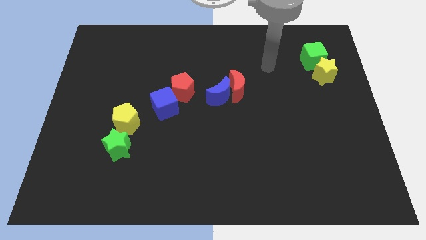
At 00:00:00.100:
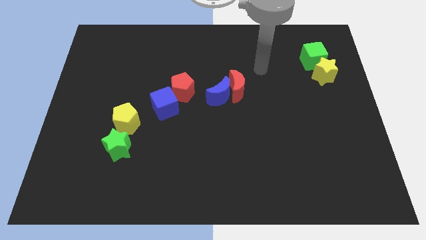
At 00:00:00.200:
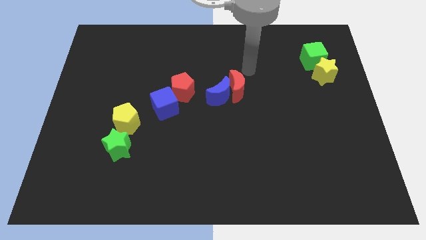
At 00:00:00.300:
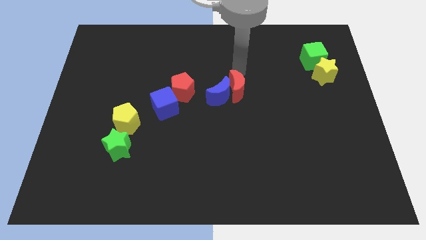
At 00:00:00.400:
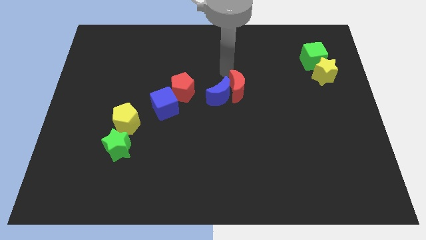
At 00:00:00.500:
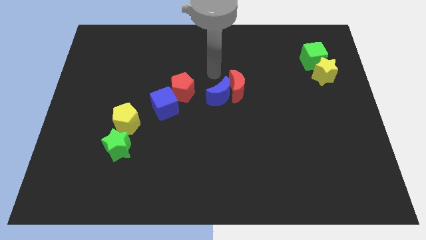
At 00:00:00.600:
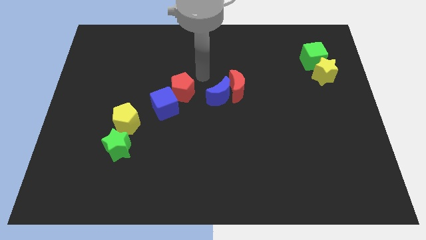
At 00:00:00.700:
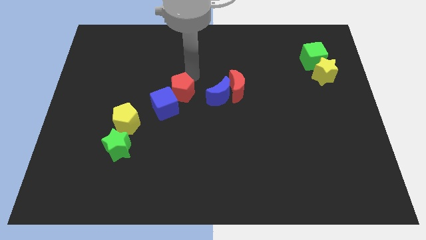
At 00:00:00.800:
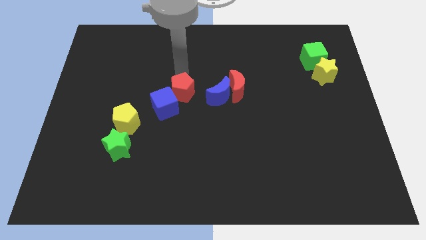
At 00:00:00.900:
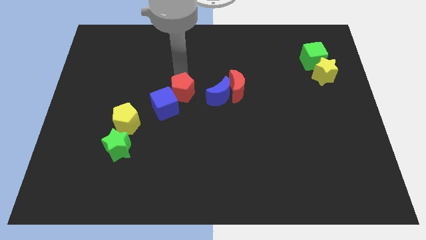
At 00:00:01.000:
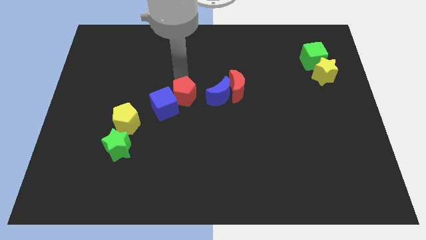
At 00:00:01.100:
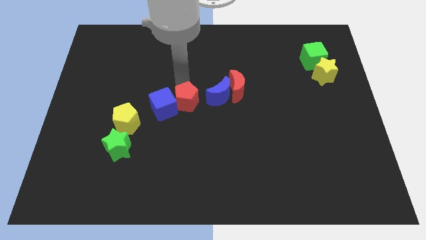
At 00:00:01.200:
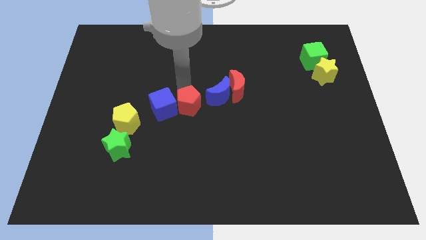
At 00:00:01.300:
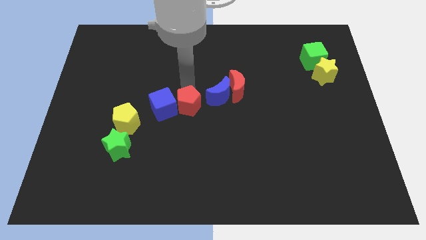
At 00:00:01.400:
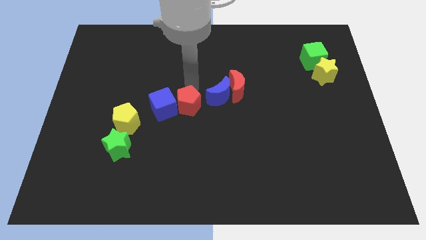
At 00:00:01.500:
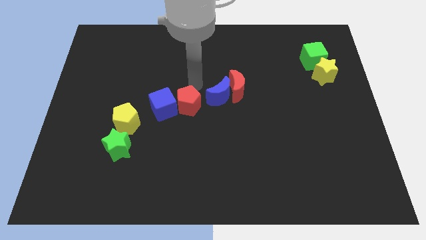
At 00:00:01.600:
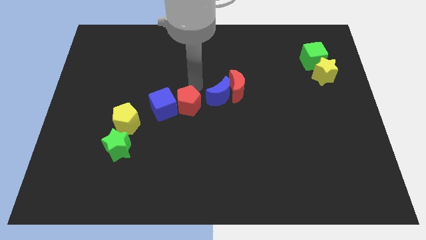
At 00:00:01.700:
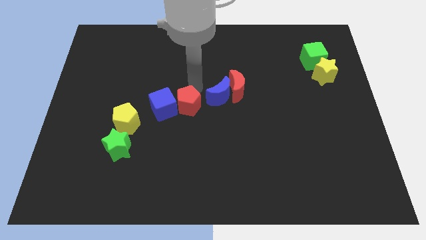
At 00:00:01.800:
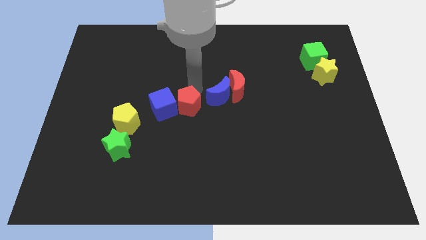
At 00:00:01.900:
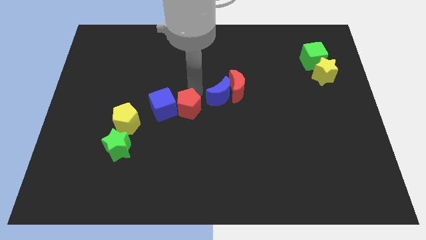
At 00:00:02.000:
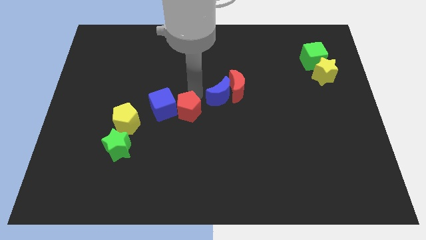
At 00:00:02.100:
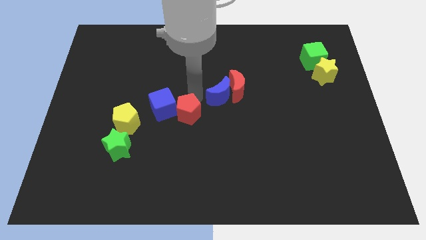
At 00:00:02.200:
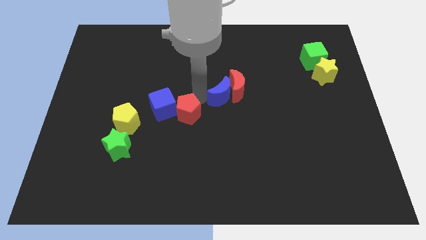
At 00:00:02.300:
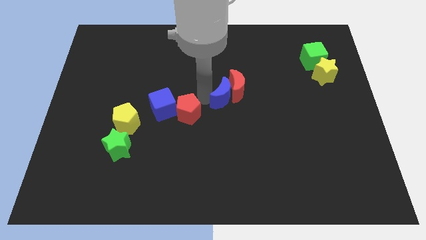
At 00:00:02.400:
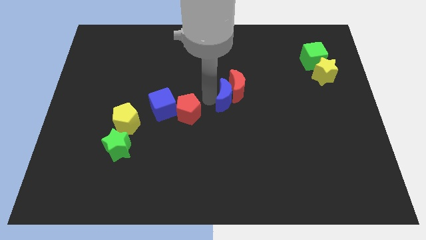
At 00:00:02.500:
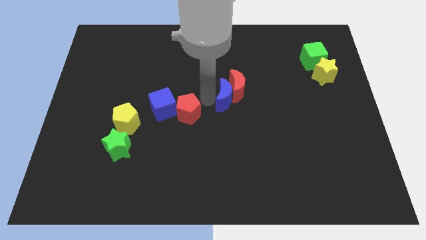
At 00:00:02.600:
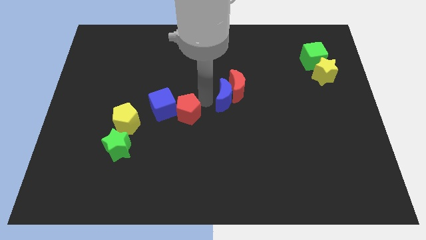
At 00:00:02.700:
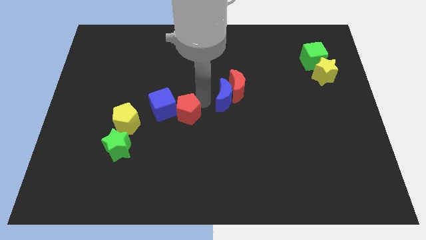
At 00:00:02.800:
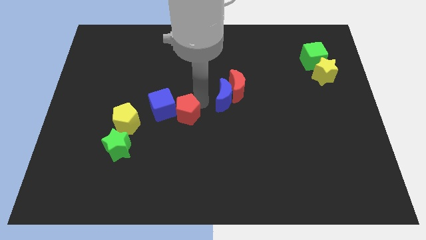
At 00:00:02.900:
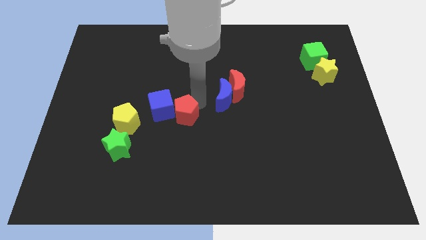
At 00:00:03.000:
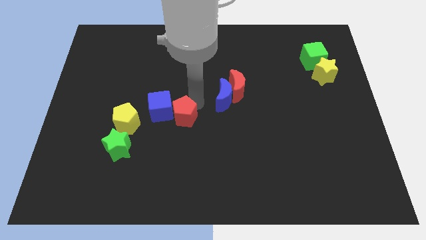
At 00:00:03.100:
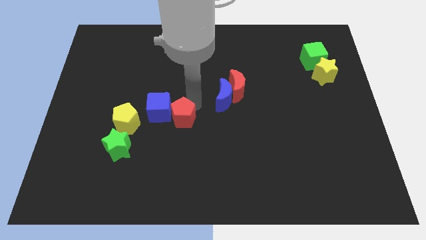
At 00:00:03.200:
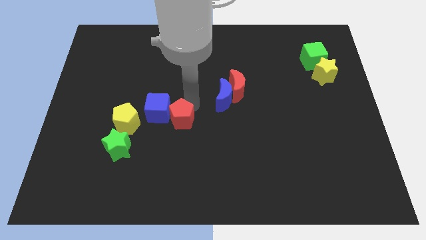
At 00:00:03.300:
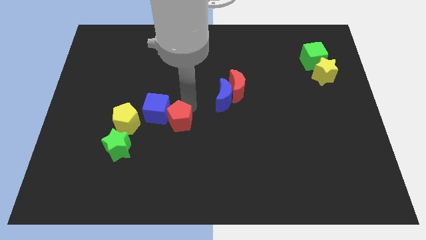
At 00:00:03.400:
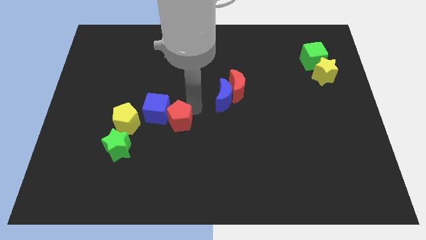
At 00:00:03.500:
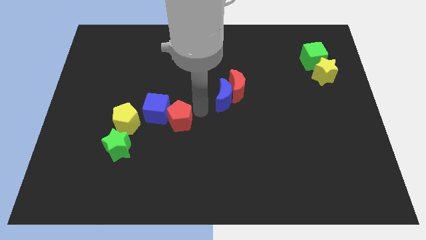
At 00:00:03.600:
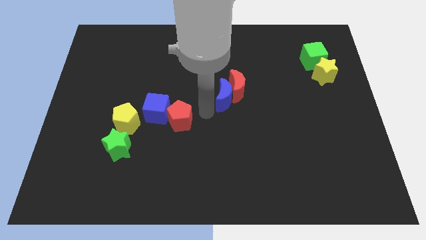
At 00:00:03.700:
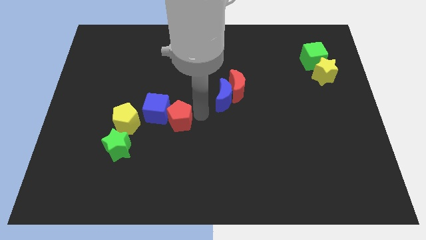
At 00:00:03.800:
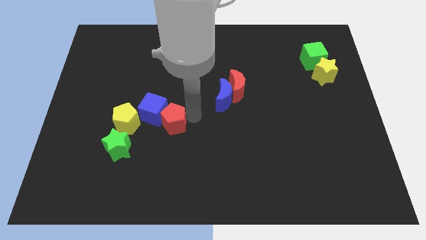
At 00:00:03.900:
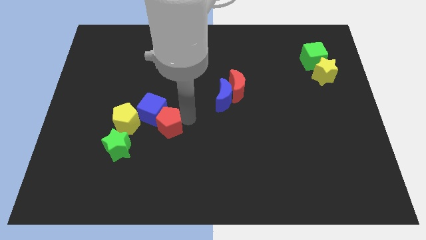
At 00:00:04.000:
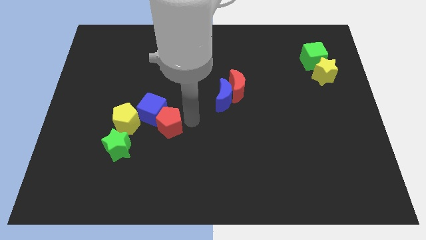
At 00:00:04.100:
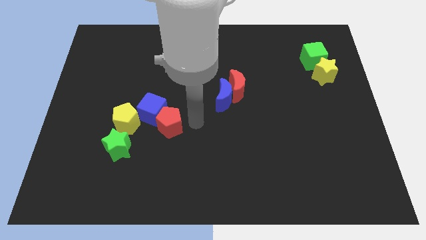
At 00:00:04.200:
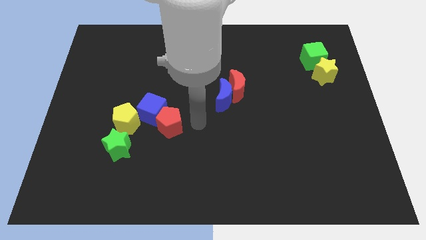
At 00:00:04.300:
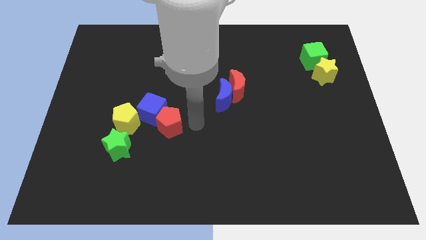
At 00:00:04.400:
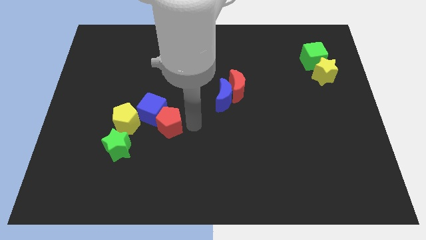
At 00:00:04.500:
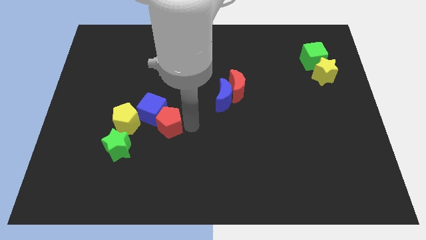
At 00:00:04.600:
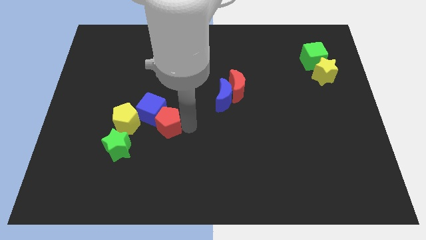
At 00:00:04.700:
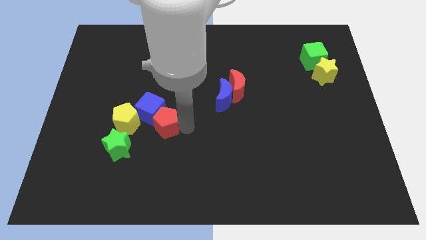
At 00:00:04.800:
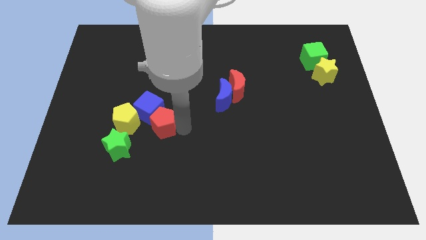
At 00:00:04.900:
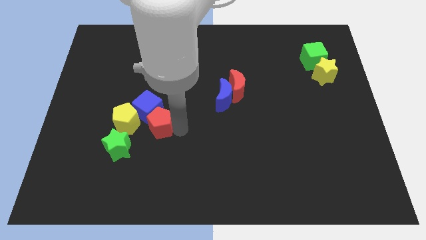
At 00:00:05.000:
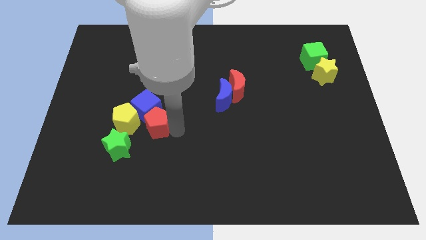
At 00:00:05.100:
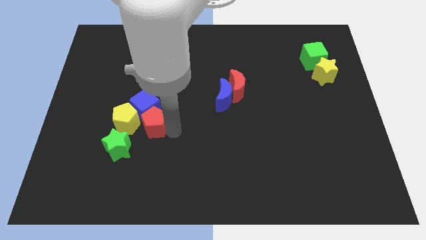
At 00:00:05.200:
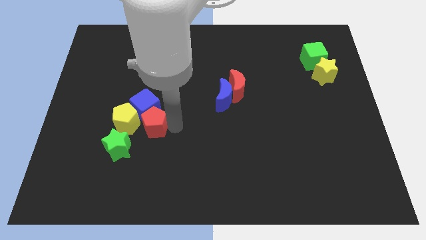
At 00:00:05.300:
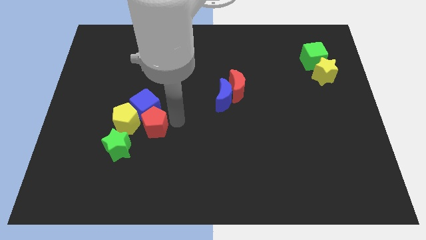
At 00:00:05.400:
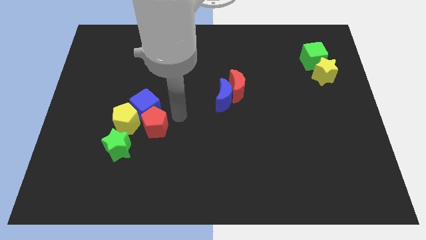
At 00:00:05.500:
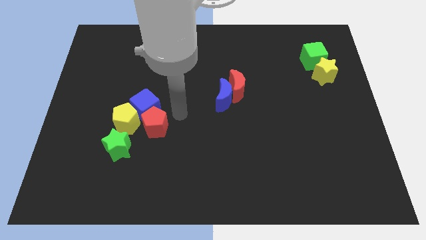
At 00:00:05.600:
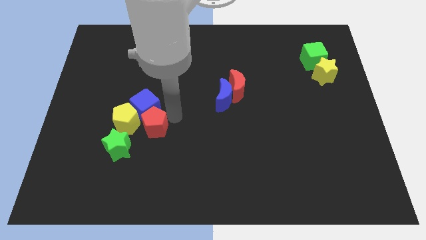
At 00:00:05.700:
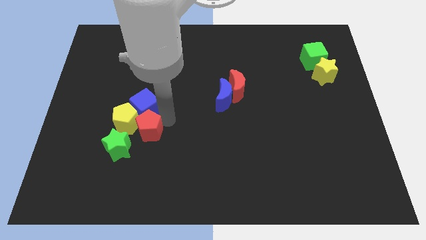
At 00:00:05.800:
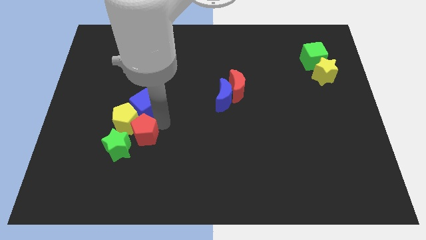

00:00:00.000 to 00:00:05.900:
move the red pentagon towards the green star

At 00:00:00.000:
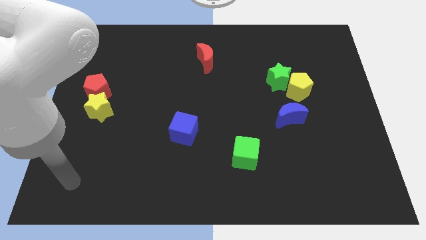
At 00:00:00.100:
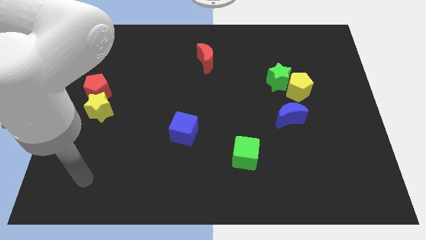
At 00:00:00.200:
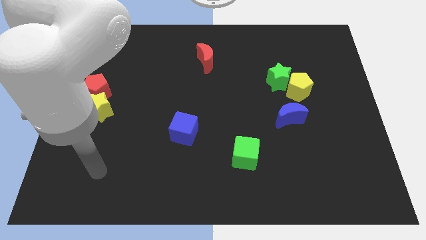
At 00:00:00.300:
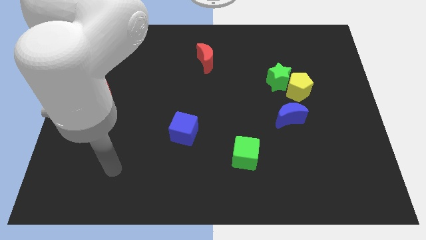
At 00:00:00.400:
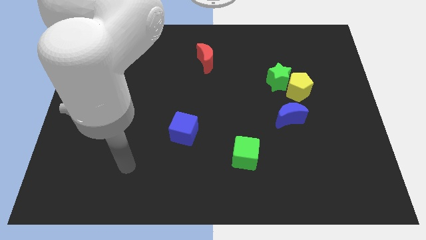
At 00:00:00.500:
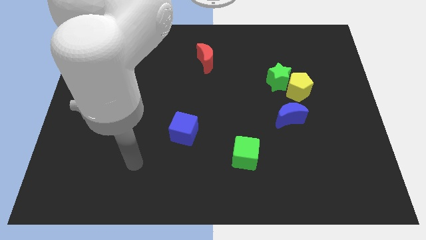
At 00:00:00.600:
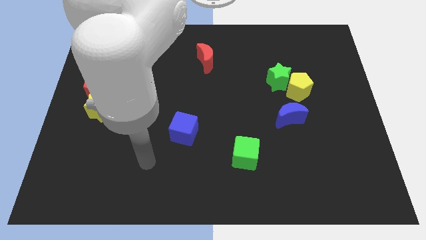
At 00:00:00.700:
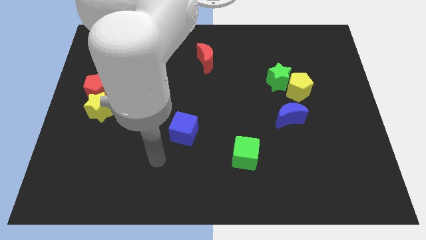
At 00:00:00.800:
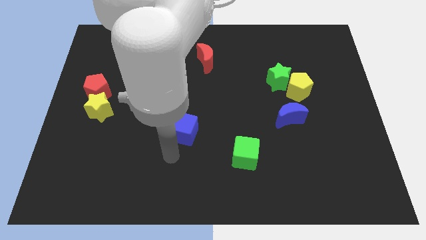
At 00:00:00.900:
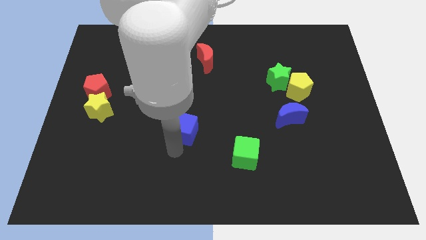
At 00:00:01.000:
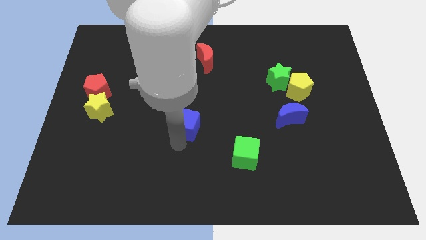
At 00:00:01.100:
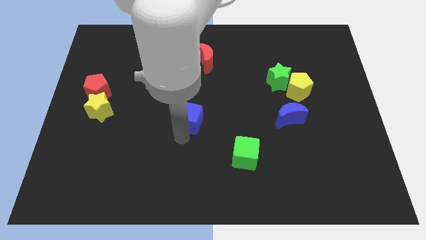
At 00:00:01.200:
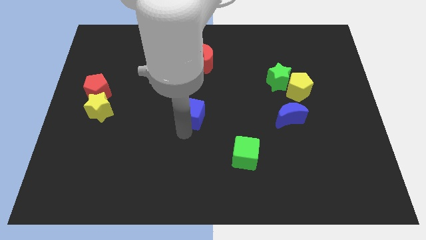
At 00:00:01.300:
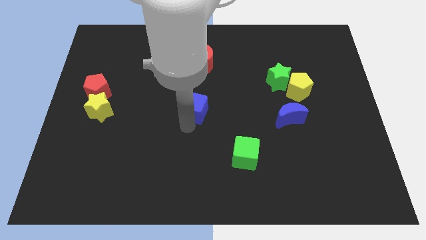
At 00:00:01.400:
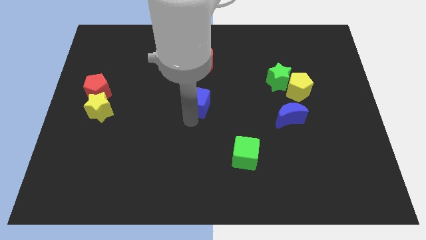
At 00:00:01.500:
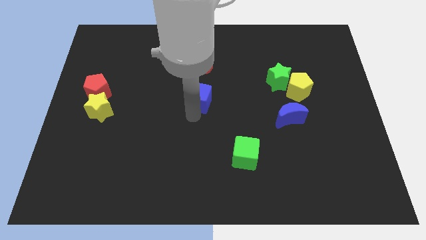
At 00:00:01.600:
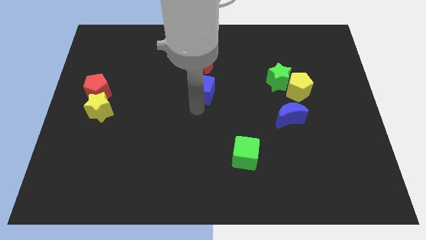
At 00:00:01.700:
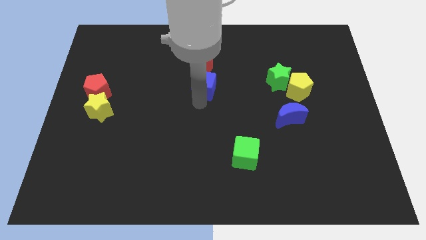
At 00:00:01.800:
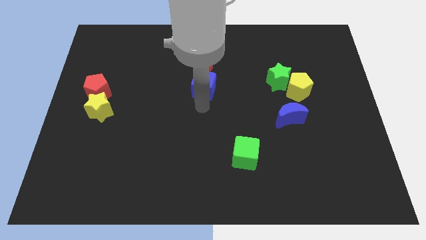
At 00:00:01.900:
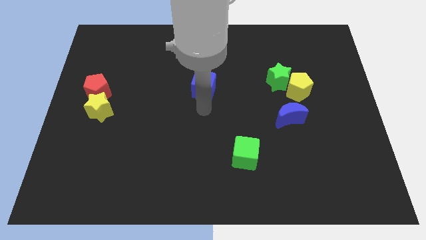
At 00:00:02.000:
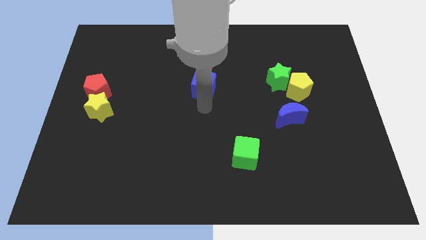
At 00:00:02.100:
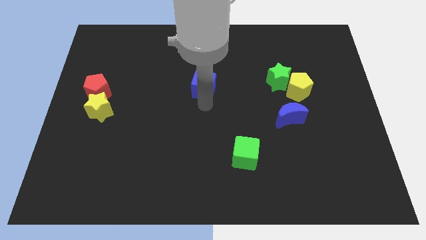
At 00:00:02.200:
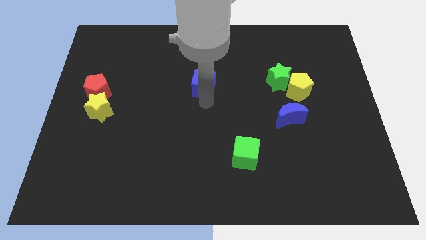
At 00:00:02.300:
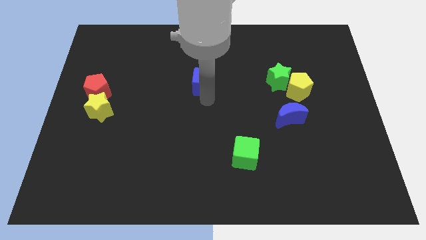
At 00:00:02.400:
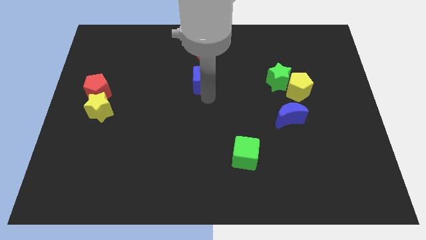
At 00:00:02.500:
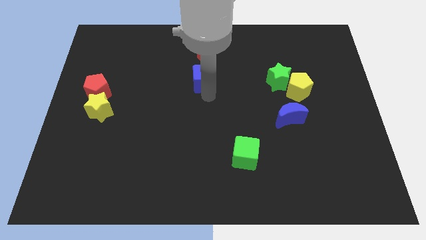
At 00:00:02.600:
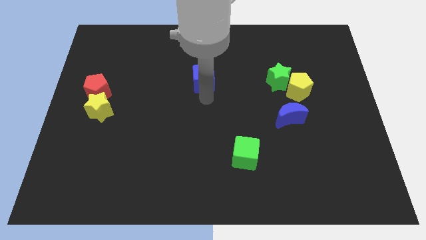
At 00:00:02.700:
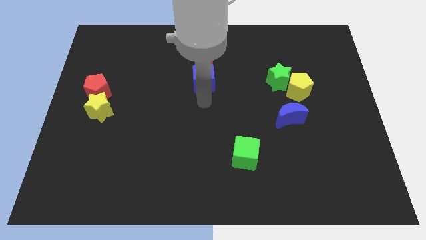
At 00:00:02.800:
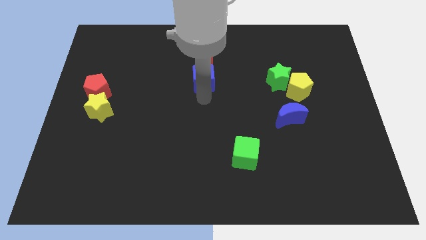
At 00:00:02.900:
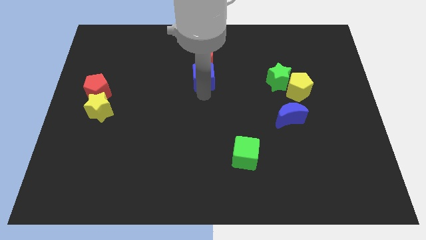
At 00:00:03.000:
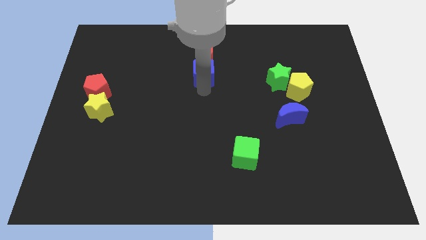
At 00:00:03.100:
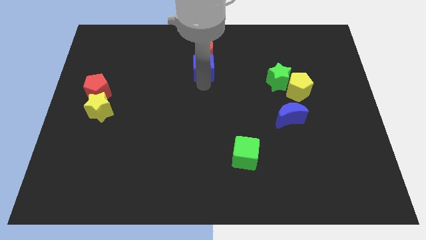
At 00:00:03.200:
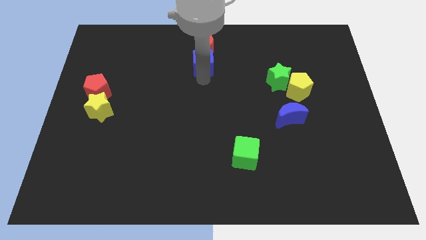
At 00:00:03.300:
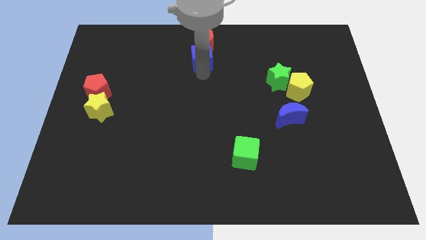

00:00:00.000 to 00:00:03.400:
slide the blue cube close to the red moon
